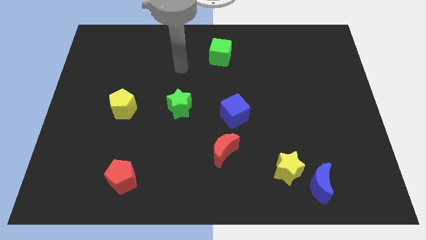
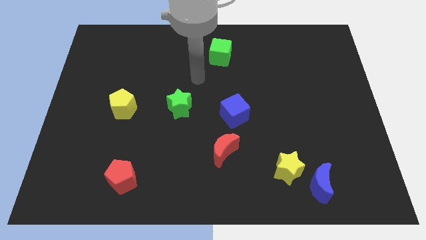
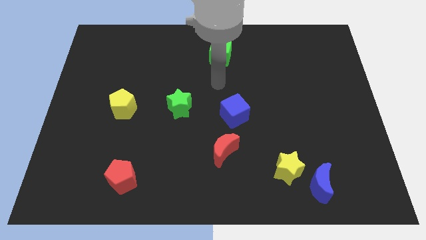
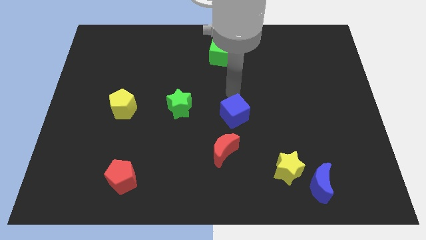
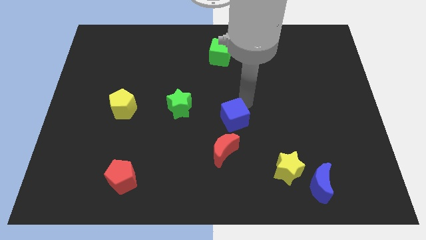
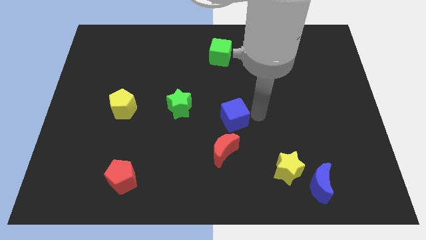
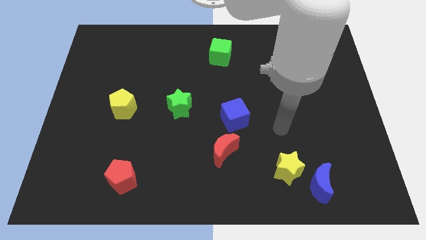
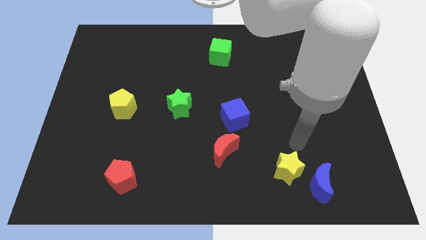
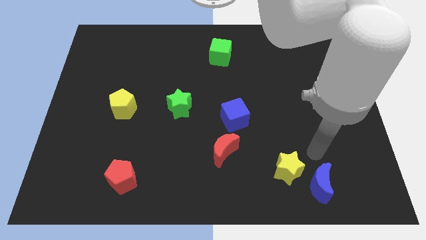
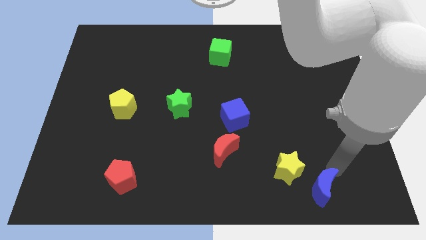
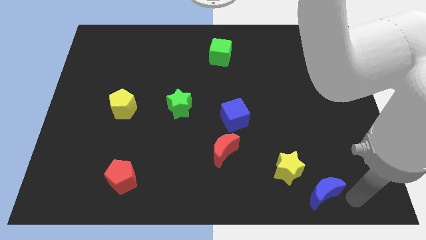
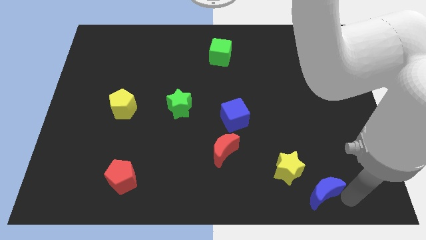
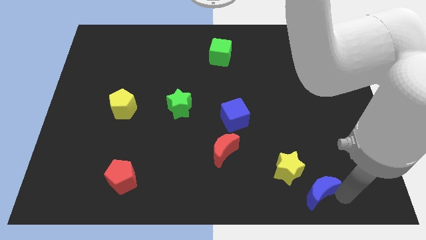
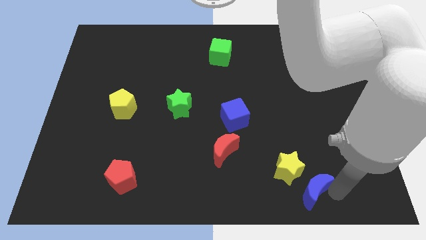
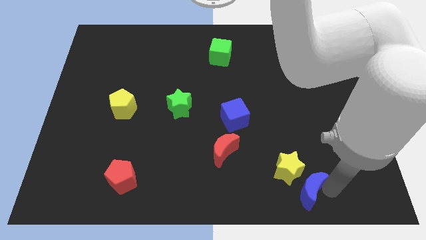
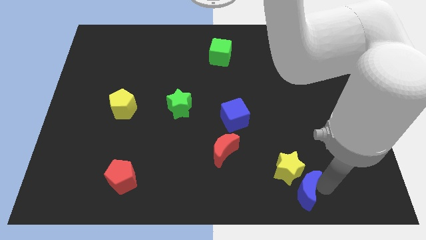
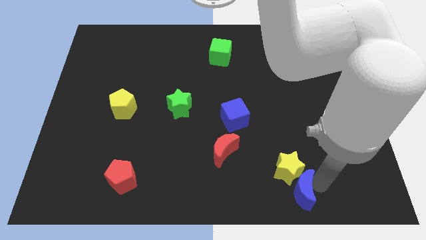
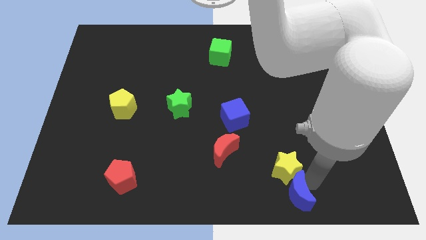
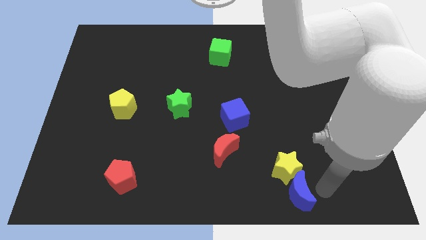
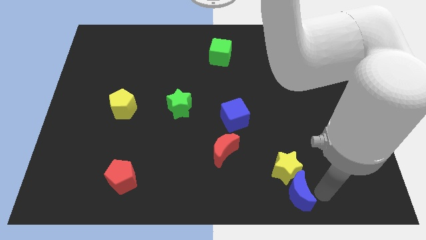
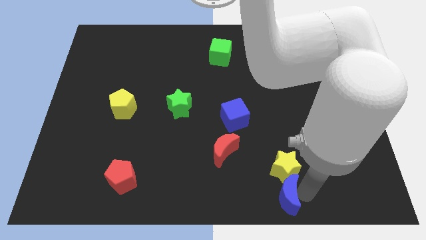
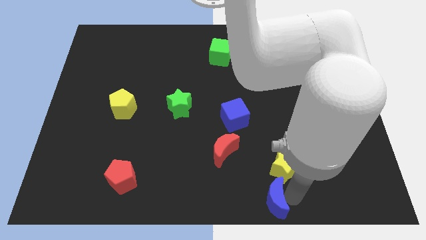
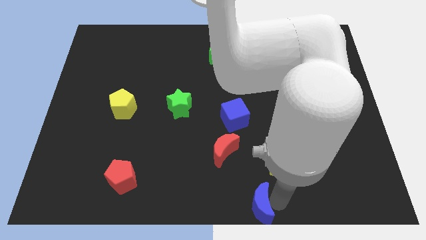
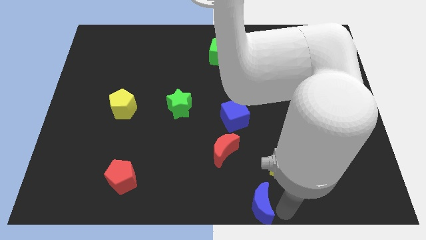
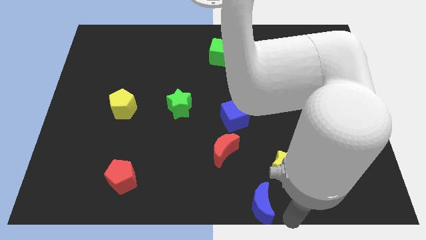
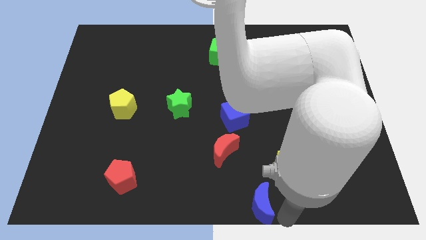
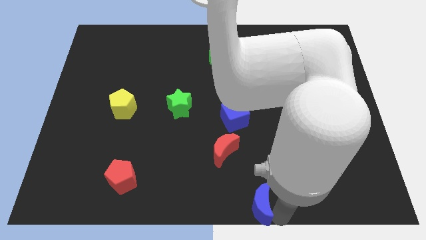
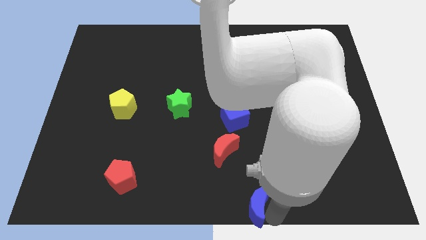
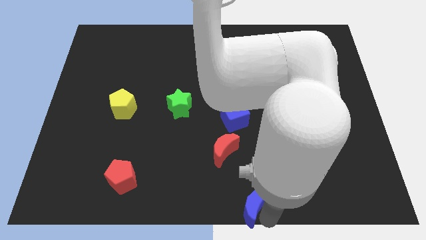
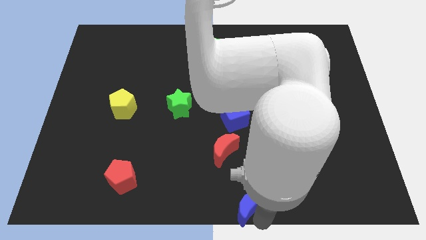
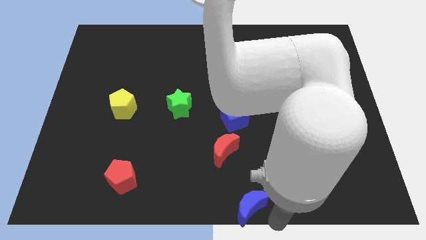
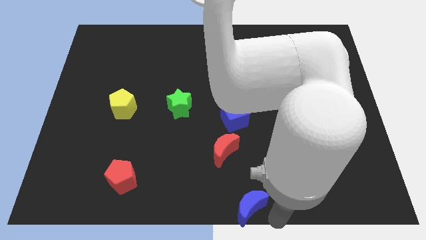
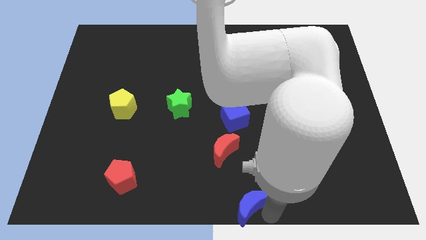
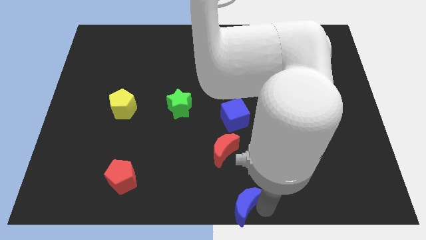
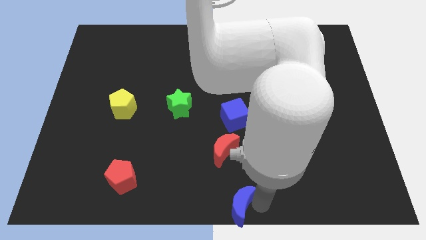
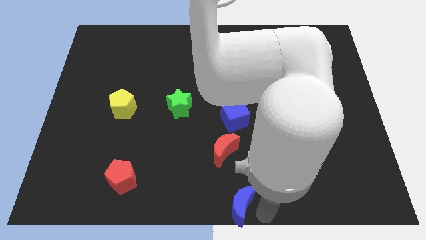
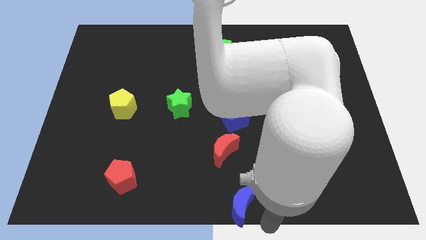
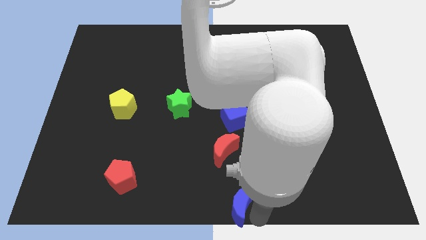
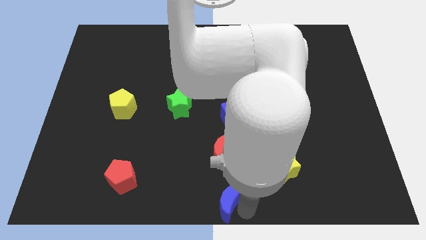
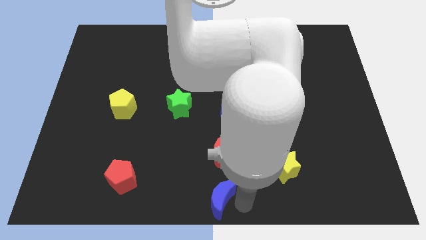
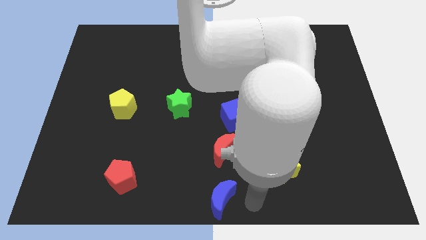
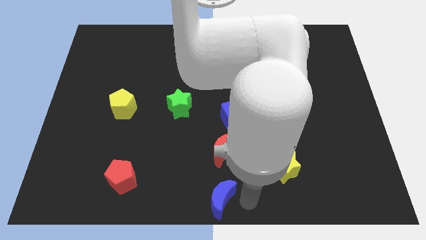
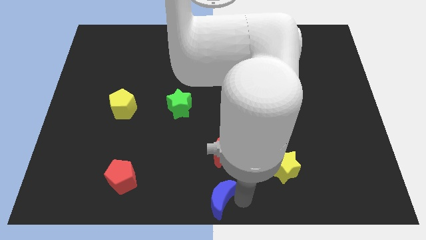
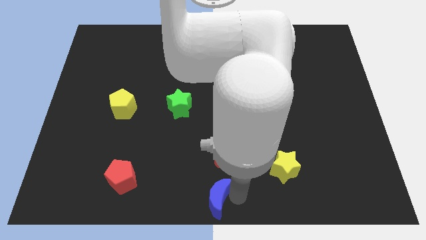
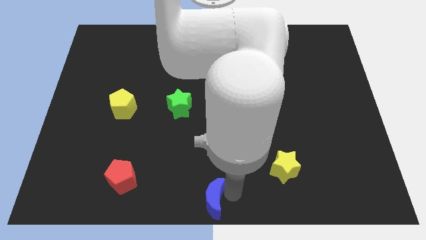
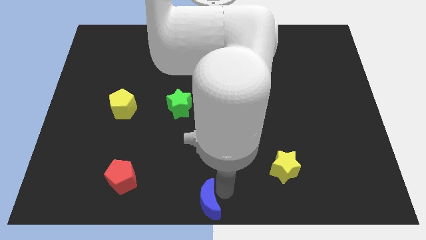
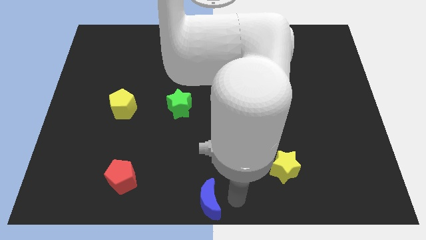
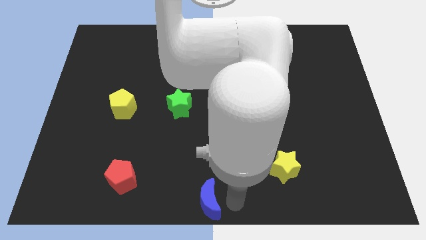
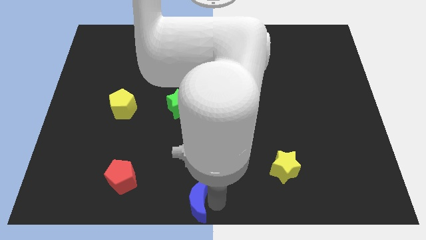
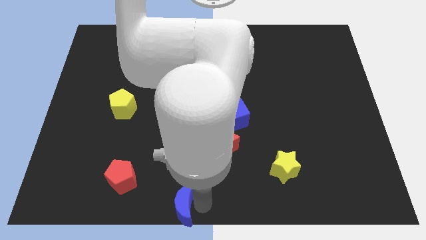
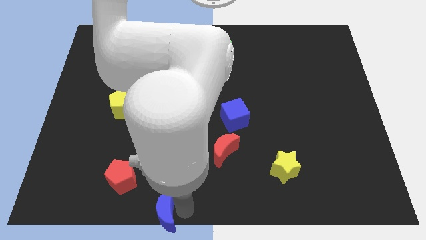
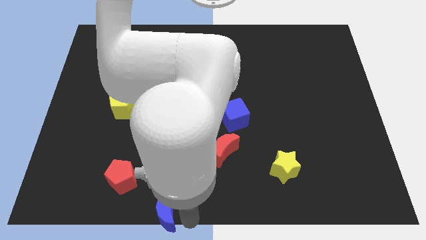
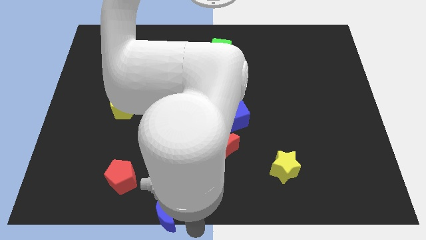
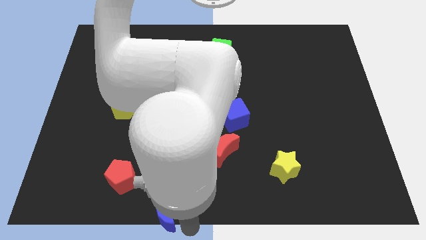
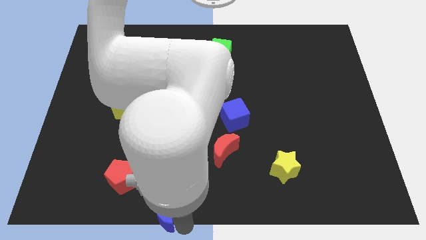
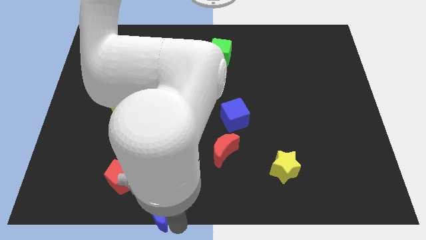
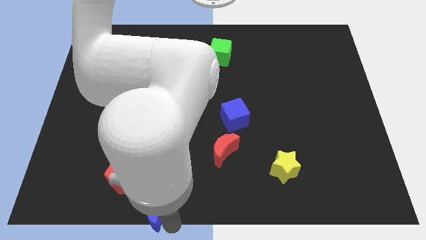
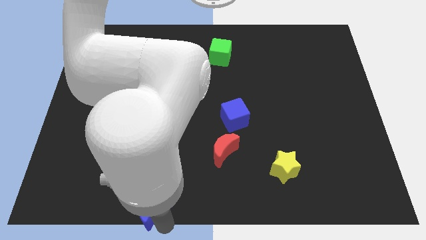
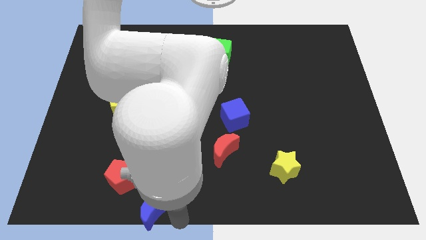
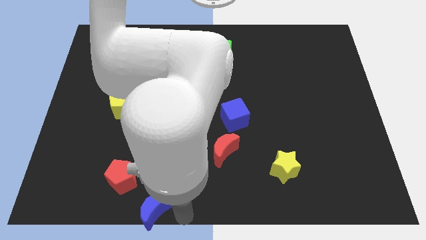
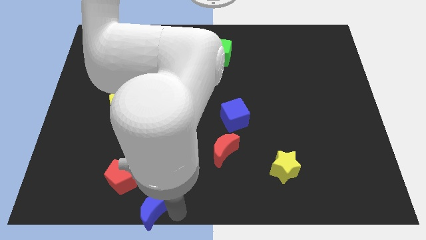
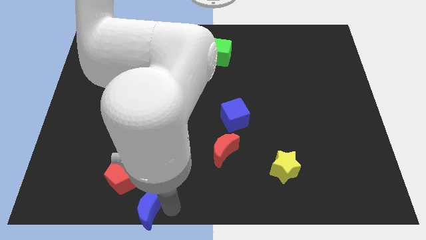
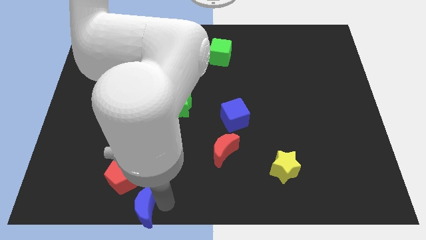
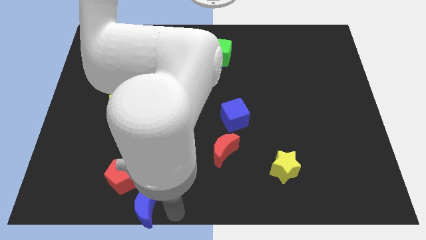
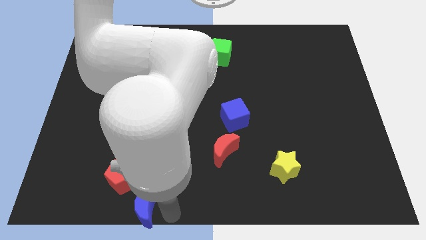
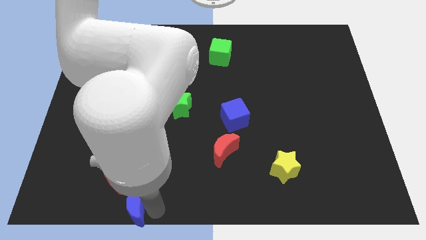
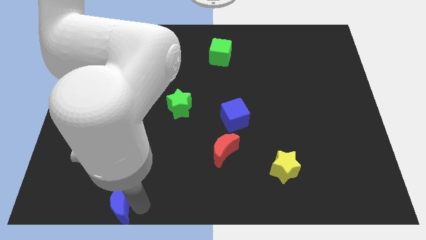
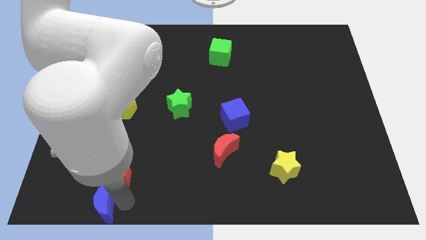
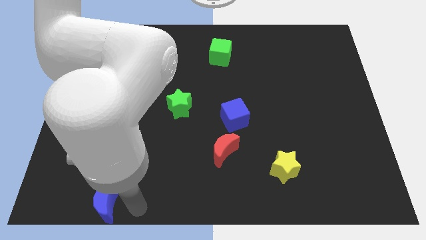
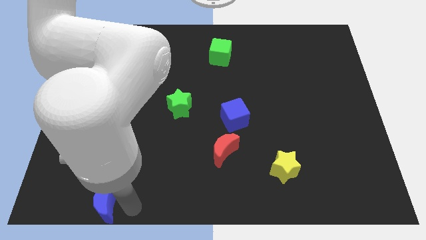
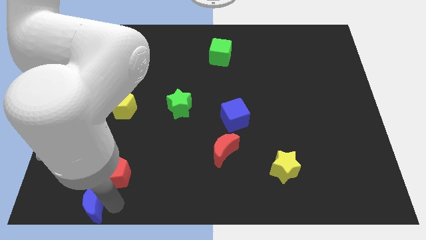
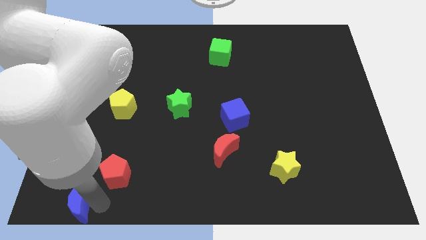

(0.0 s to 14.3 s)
push the blue moon to the bottom left of the board

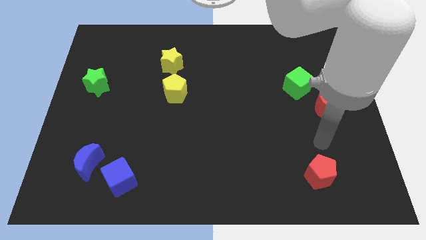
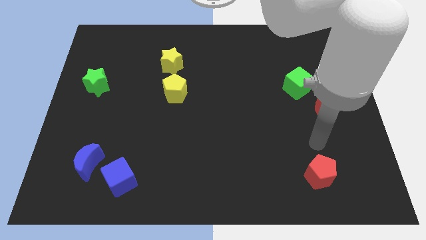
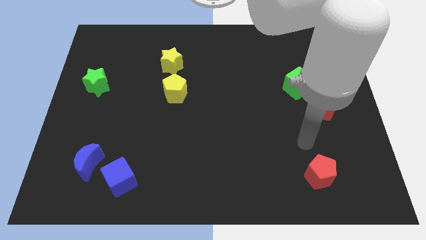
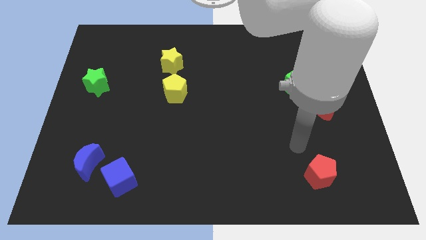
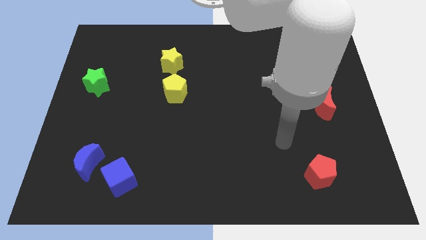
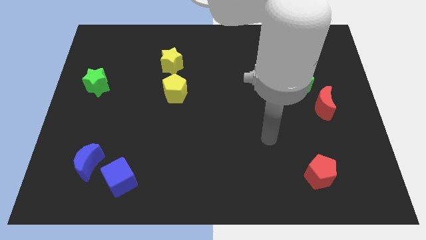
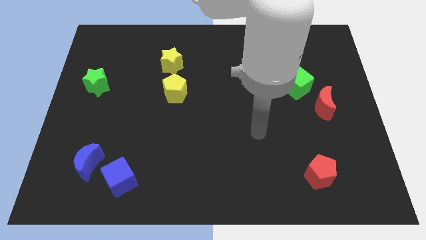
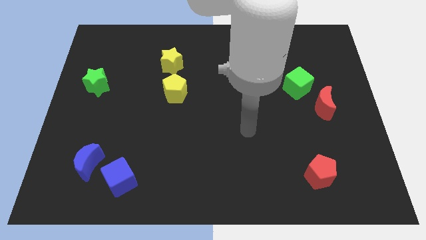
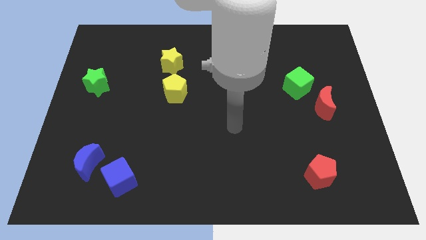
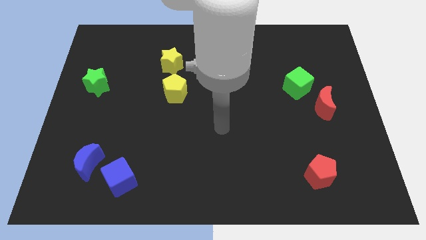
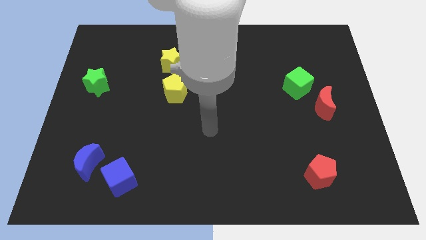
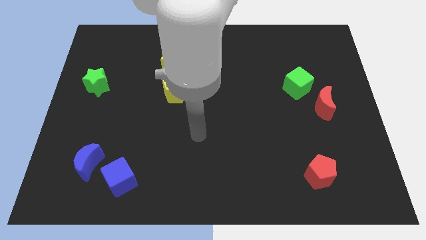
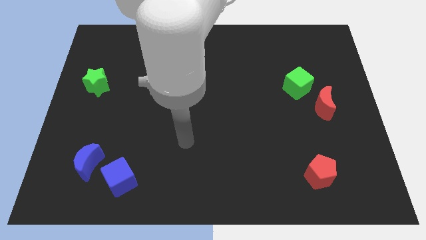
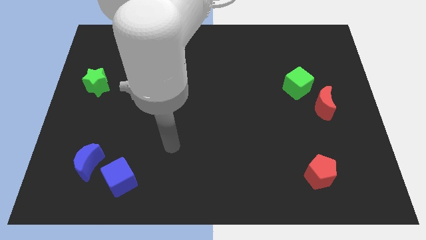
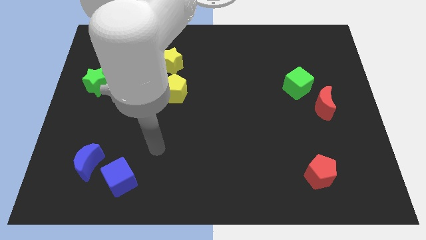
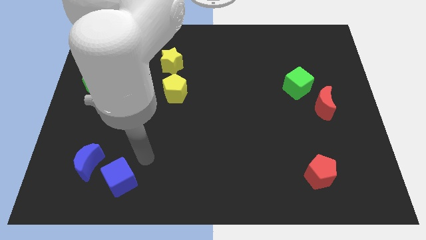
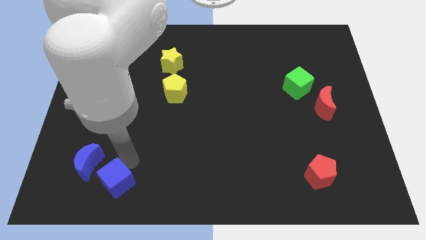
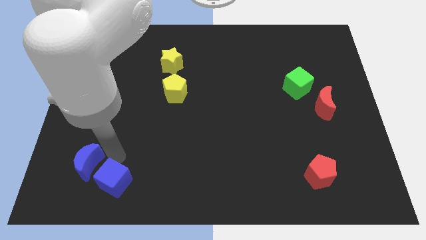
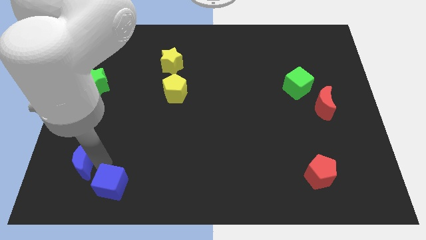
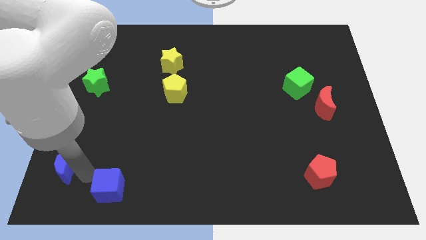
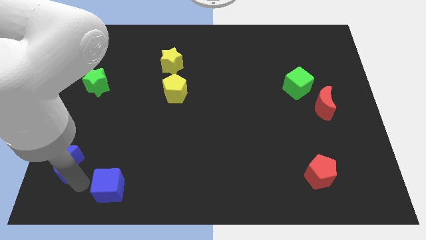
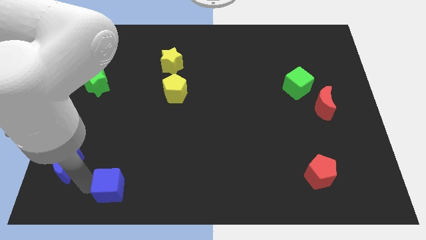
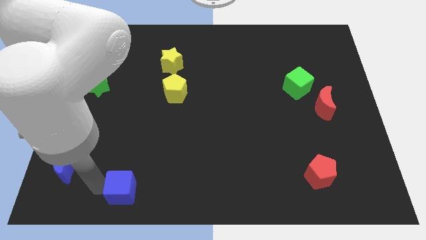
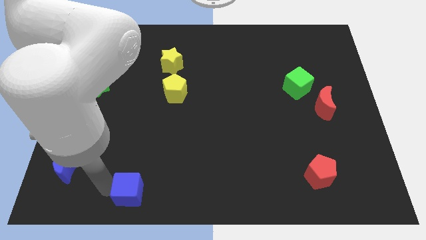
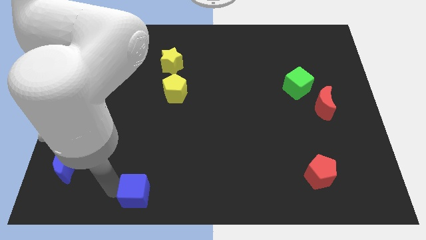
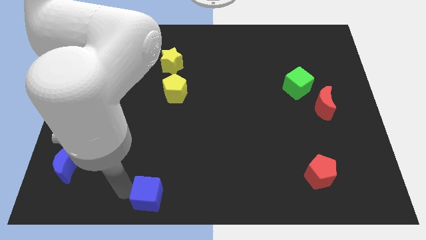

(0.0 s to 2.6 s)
move the blue cube to the bottom side
